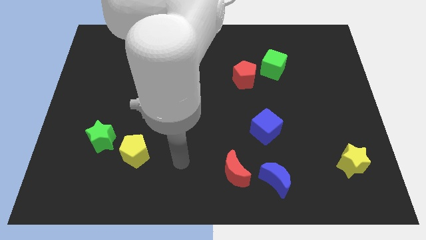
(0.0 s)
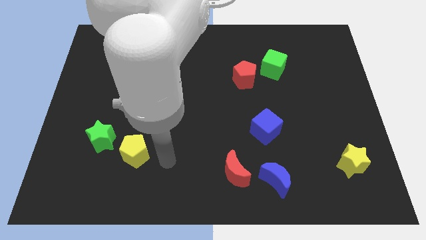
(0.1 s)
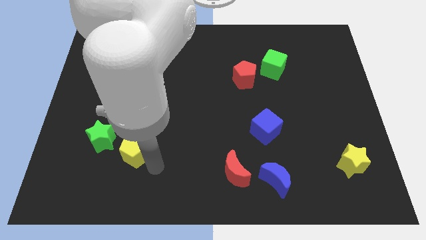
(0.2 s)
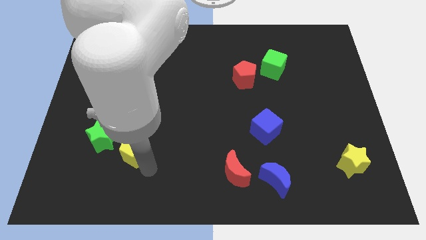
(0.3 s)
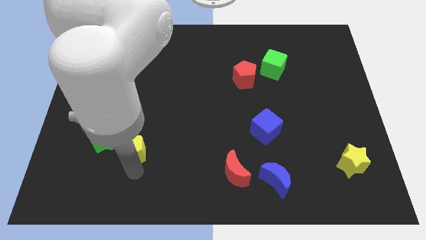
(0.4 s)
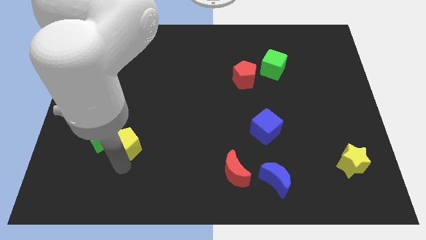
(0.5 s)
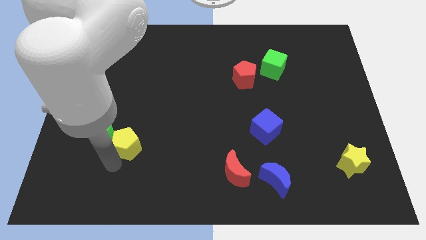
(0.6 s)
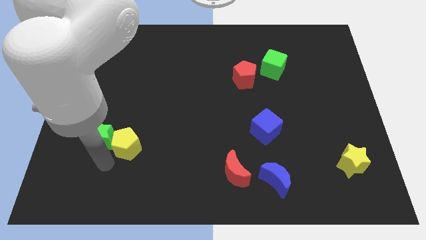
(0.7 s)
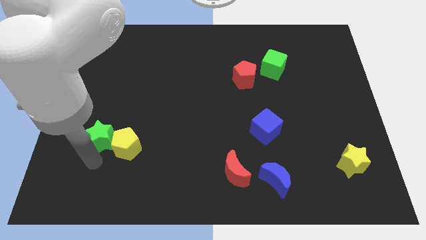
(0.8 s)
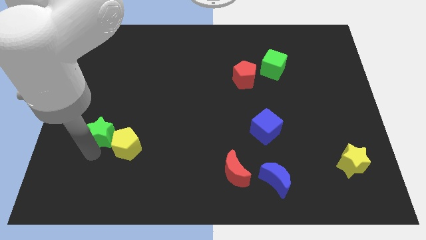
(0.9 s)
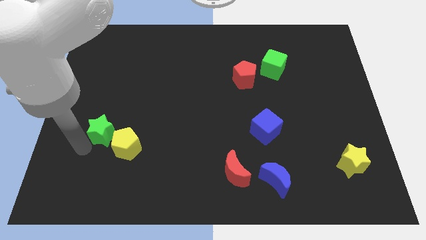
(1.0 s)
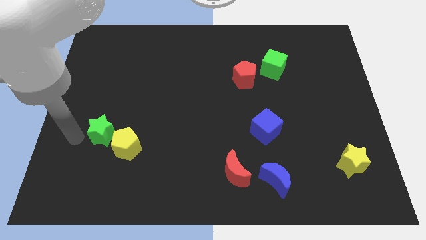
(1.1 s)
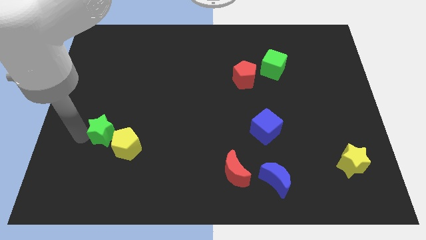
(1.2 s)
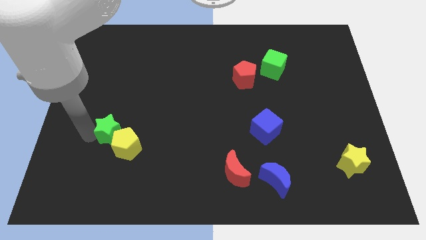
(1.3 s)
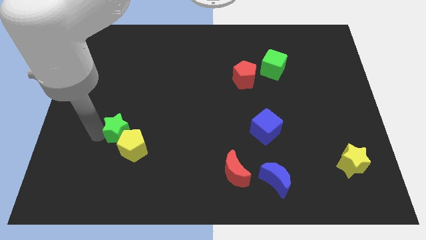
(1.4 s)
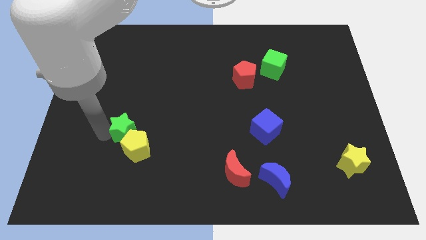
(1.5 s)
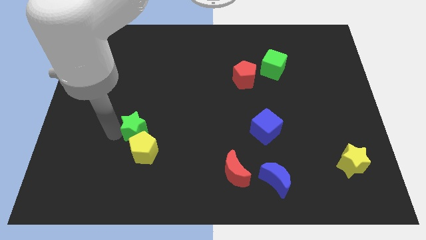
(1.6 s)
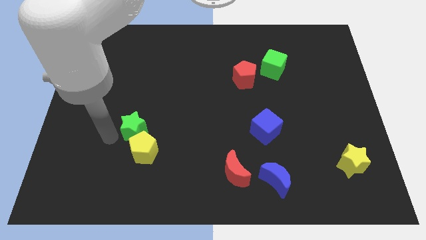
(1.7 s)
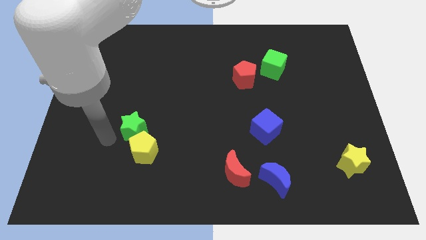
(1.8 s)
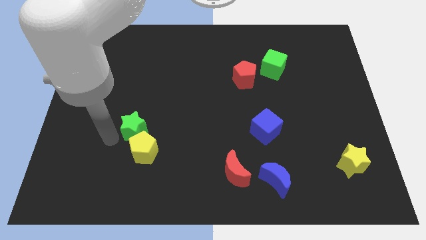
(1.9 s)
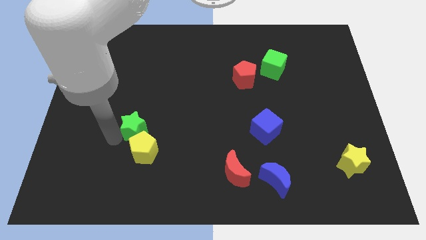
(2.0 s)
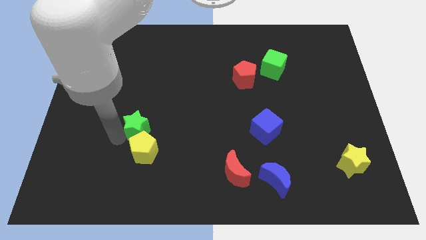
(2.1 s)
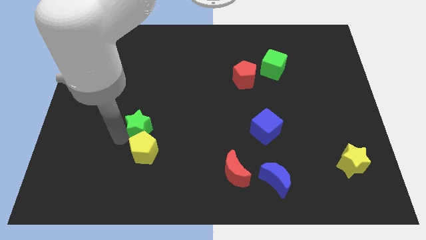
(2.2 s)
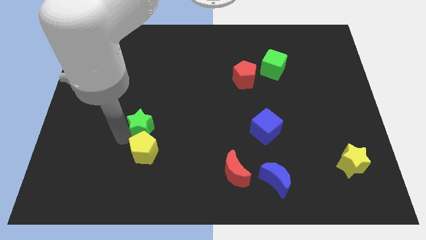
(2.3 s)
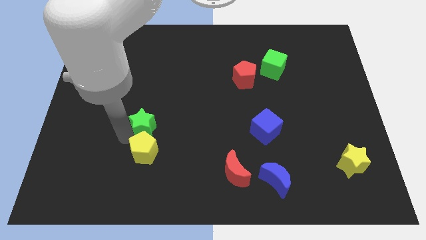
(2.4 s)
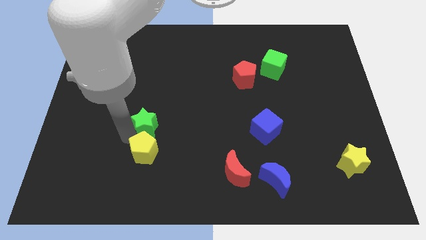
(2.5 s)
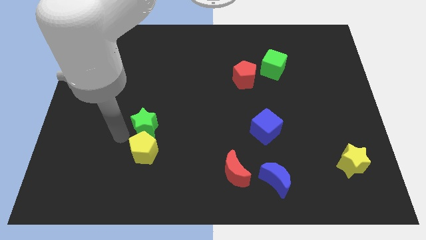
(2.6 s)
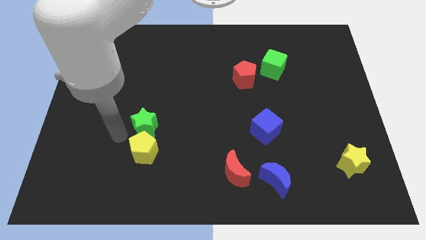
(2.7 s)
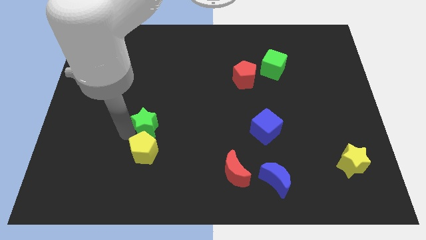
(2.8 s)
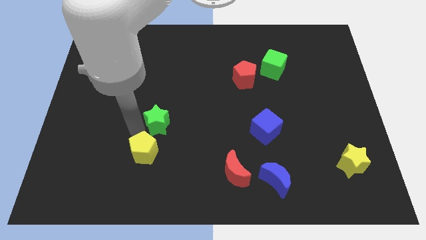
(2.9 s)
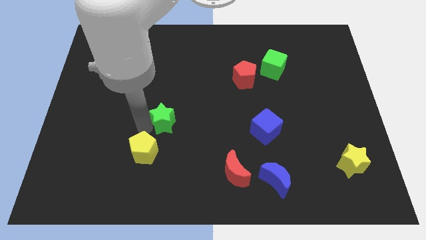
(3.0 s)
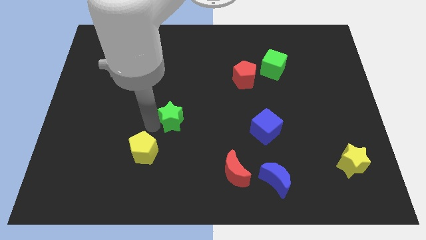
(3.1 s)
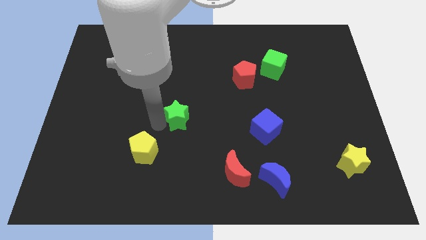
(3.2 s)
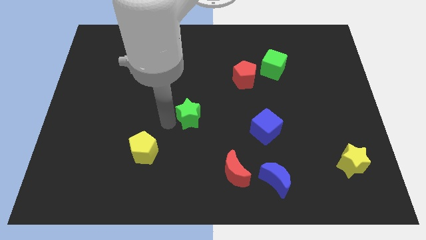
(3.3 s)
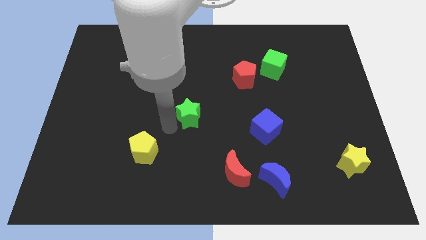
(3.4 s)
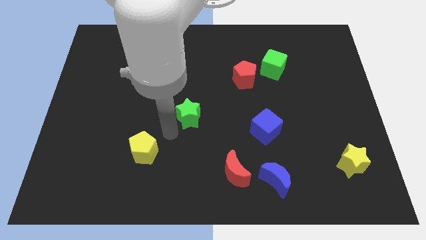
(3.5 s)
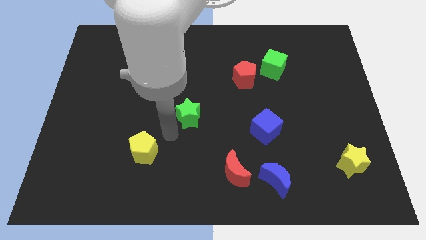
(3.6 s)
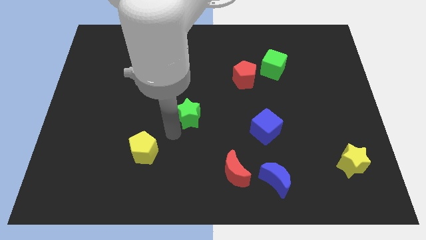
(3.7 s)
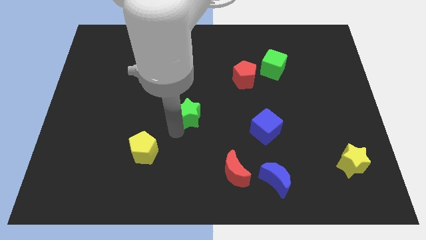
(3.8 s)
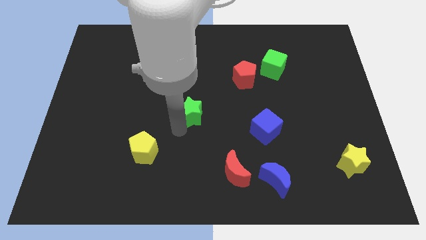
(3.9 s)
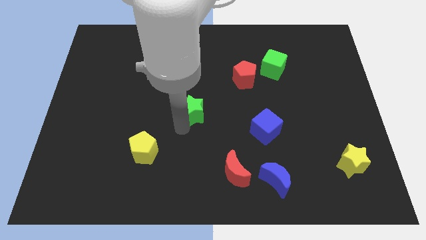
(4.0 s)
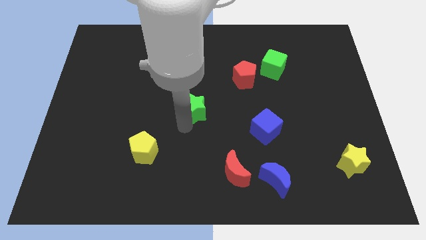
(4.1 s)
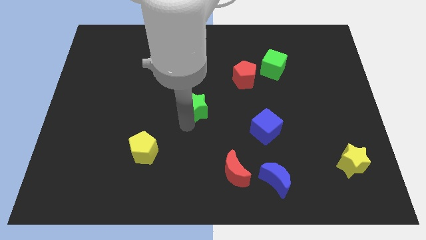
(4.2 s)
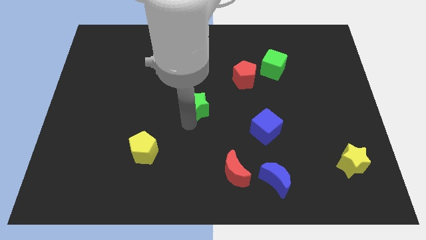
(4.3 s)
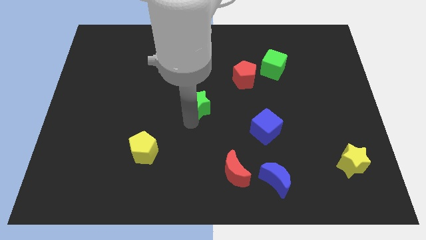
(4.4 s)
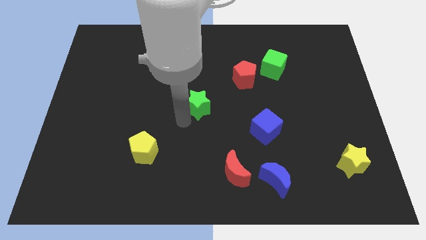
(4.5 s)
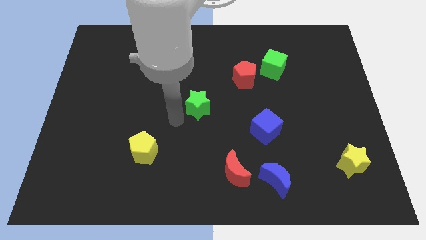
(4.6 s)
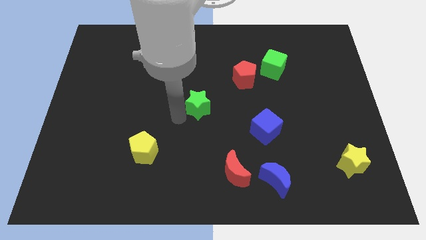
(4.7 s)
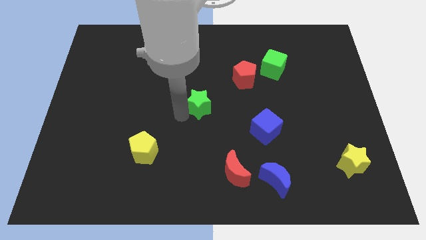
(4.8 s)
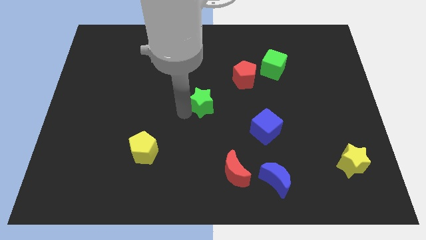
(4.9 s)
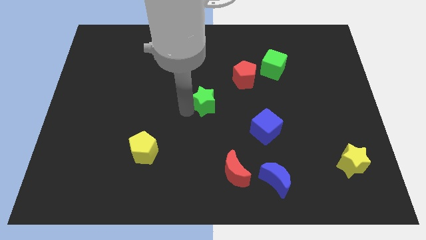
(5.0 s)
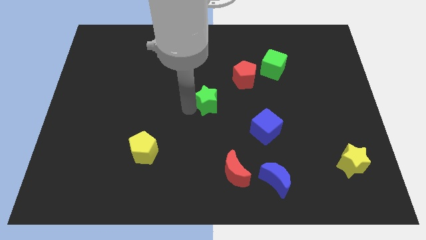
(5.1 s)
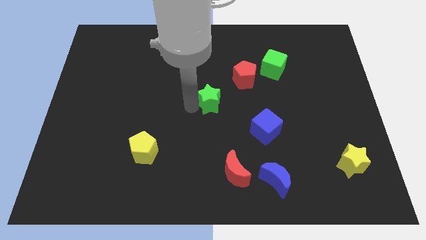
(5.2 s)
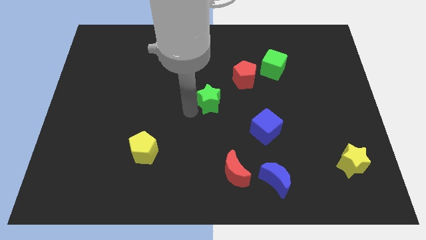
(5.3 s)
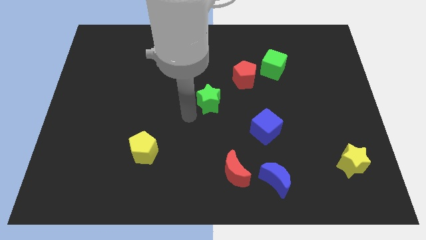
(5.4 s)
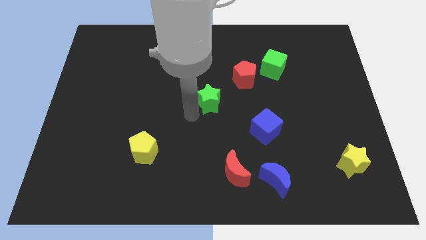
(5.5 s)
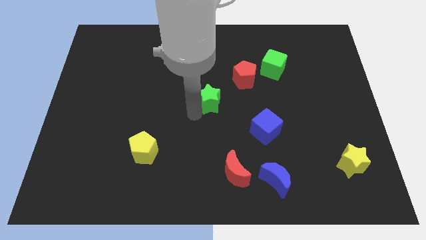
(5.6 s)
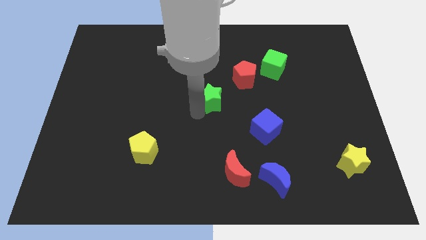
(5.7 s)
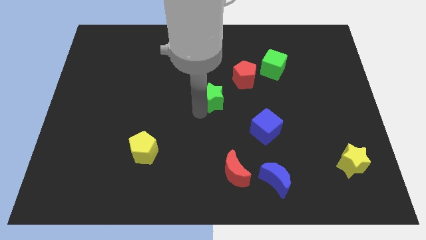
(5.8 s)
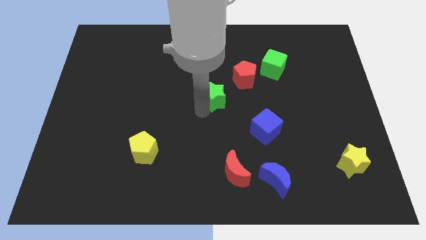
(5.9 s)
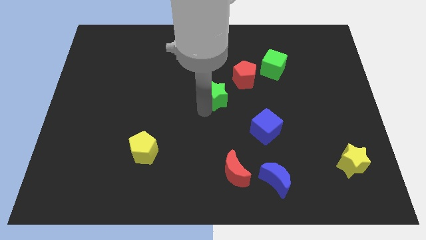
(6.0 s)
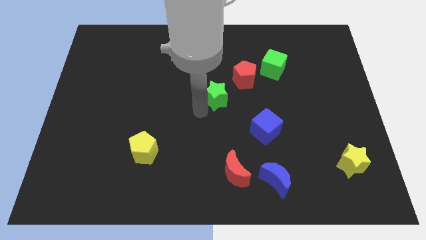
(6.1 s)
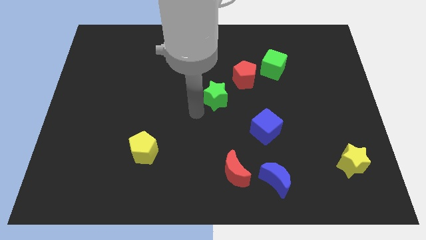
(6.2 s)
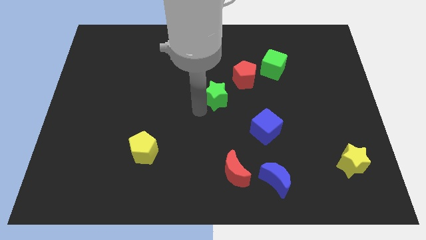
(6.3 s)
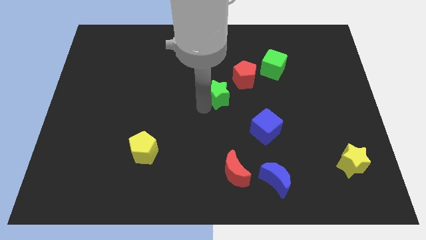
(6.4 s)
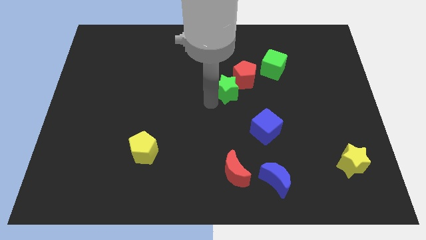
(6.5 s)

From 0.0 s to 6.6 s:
push the green star towards the red pentagon

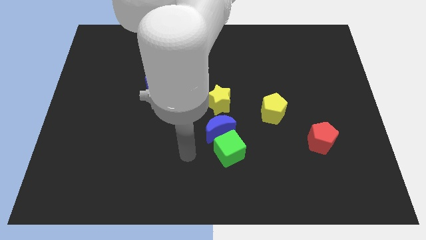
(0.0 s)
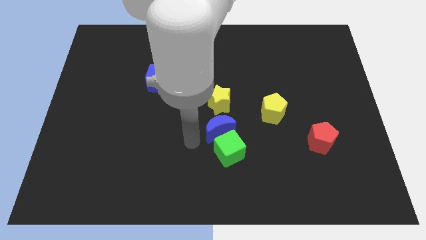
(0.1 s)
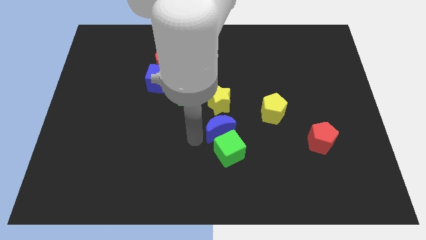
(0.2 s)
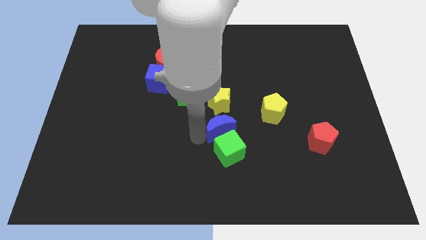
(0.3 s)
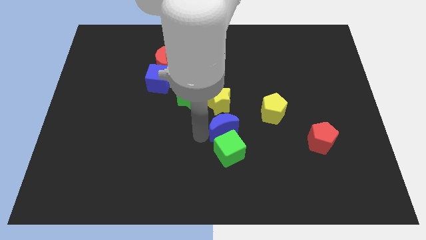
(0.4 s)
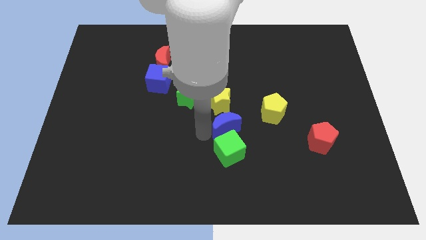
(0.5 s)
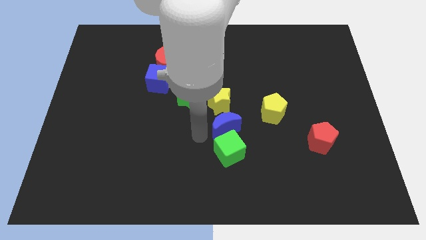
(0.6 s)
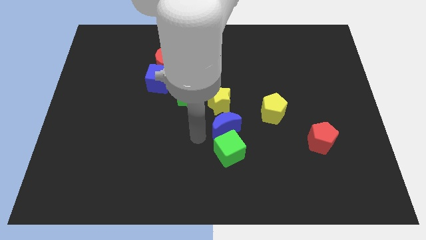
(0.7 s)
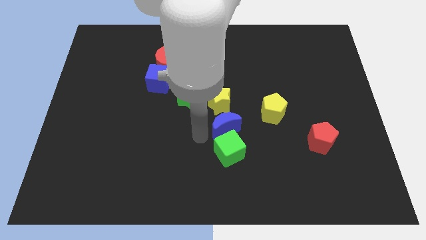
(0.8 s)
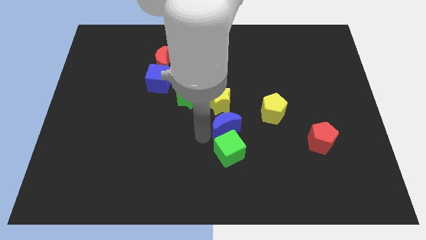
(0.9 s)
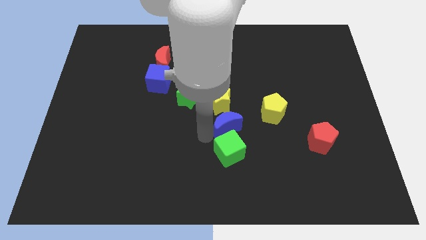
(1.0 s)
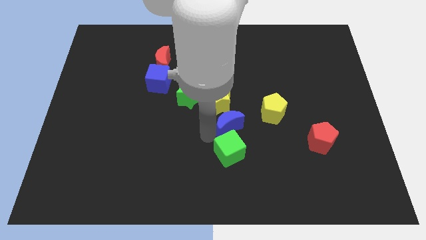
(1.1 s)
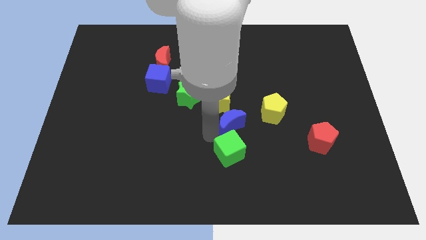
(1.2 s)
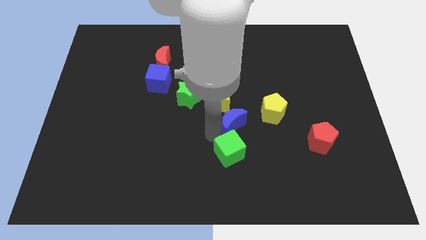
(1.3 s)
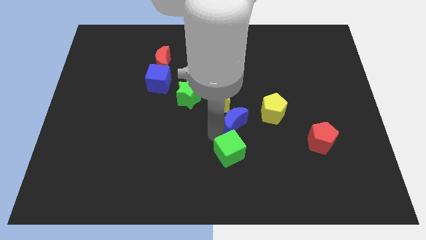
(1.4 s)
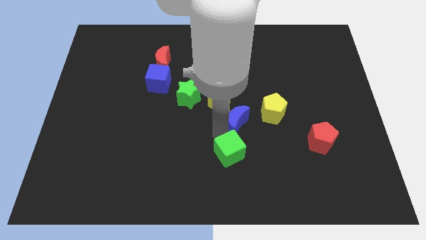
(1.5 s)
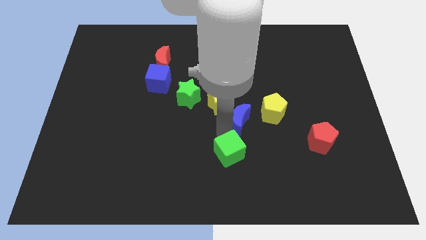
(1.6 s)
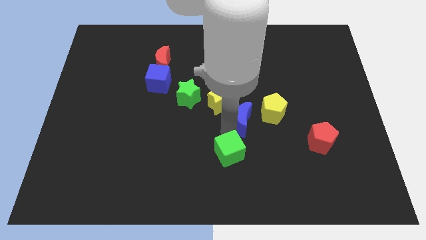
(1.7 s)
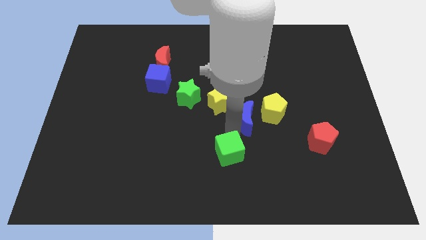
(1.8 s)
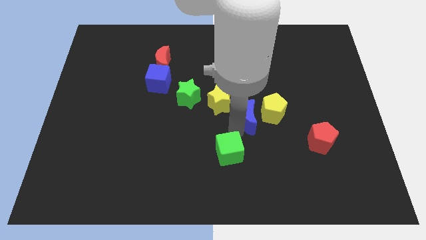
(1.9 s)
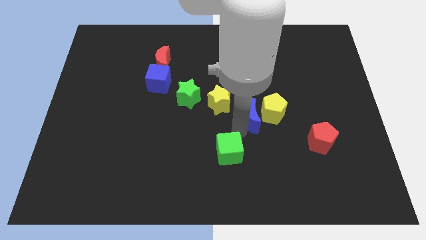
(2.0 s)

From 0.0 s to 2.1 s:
put the blue moon close to the yellow pentagon
